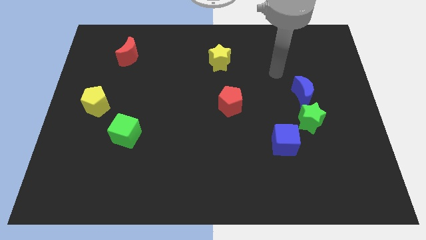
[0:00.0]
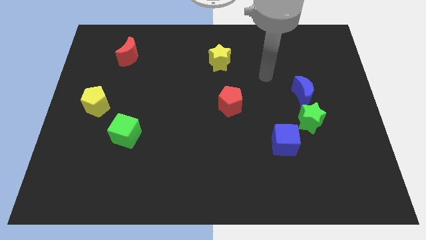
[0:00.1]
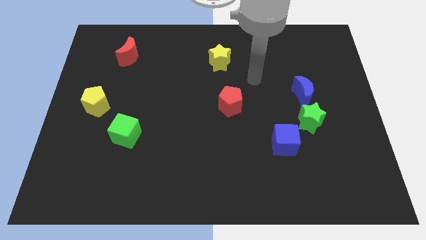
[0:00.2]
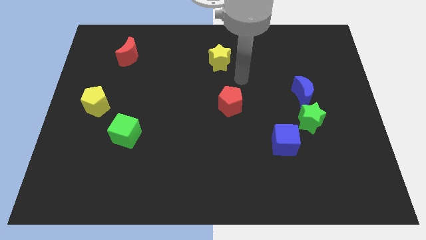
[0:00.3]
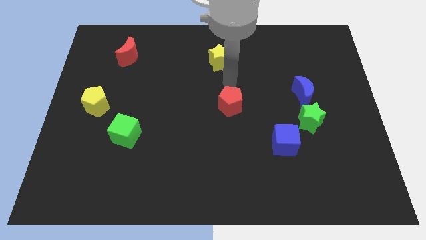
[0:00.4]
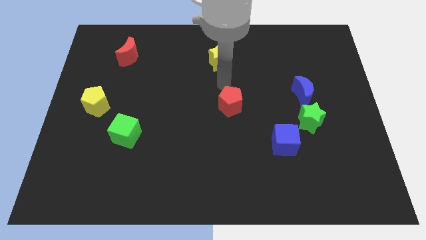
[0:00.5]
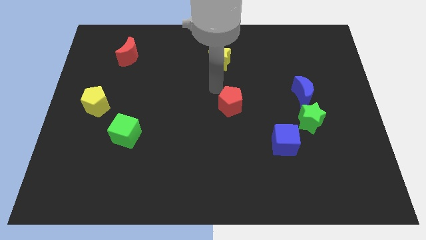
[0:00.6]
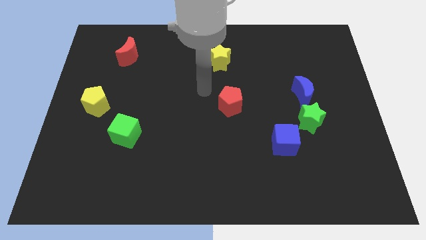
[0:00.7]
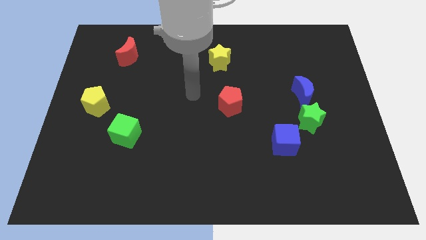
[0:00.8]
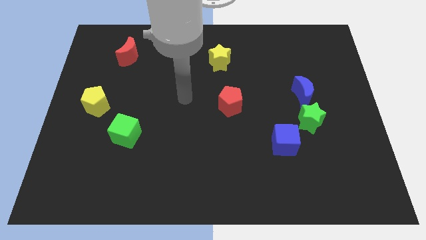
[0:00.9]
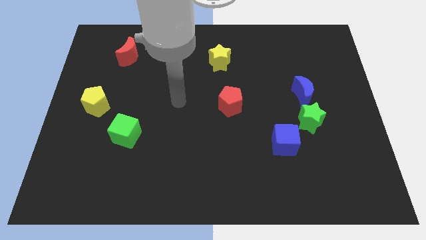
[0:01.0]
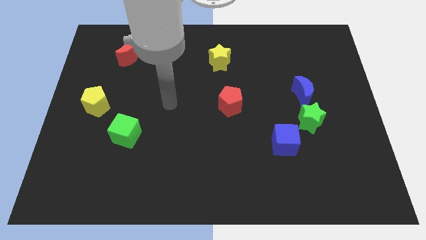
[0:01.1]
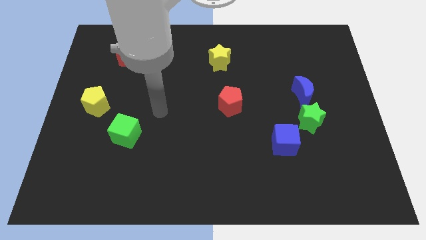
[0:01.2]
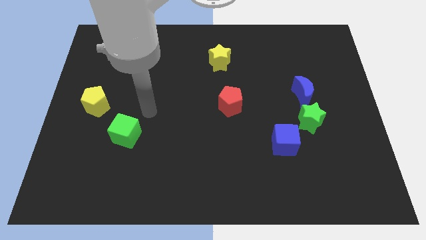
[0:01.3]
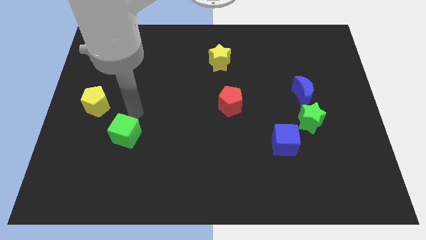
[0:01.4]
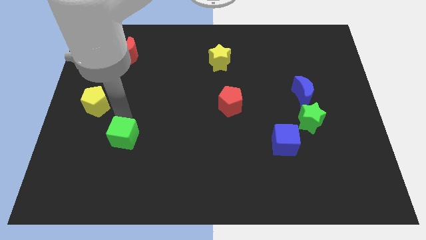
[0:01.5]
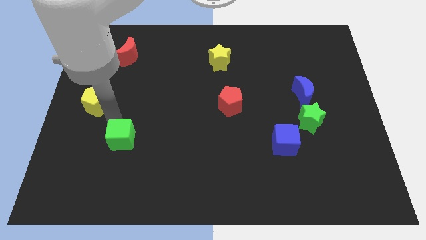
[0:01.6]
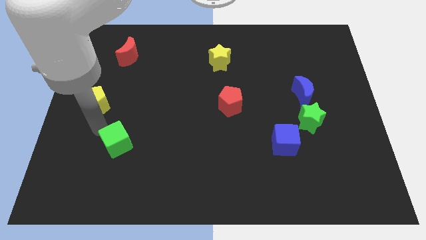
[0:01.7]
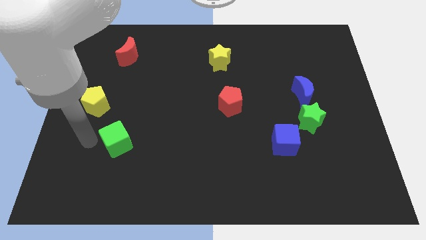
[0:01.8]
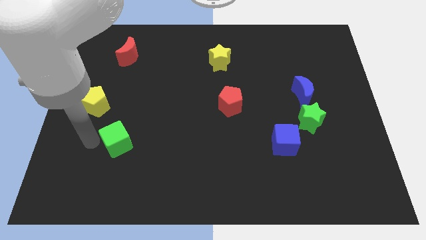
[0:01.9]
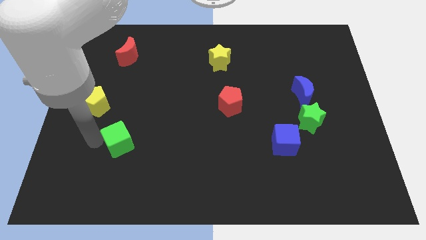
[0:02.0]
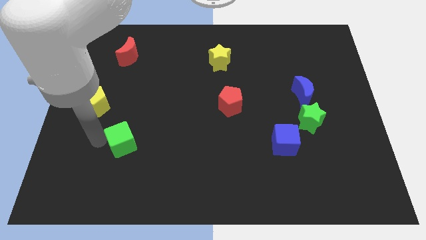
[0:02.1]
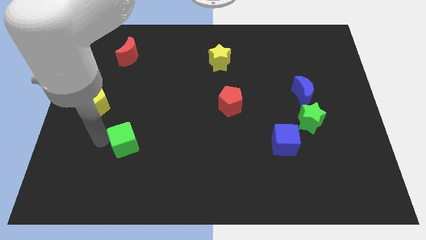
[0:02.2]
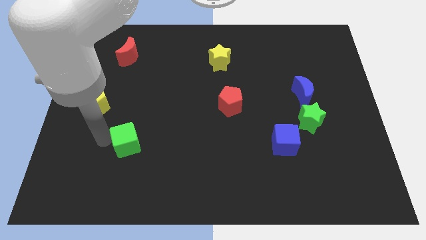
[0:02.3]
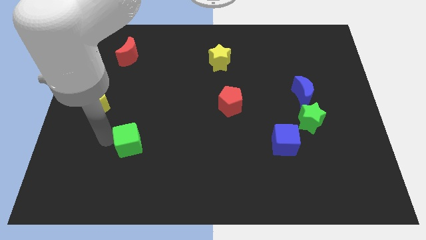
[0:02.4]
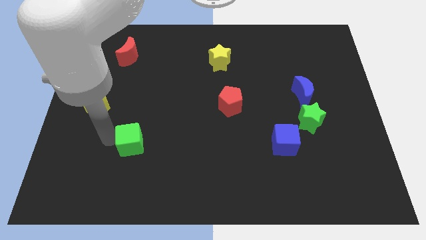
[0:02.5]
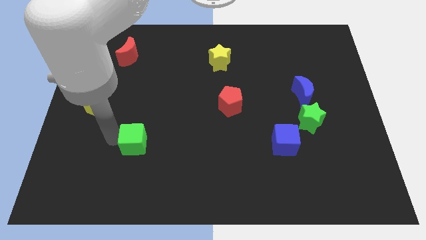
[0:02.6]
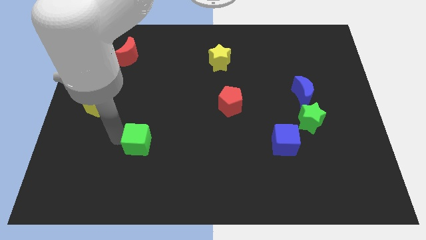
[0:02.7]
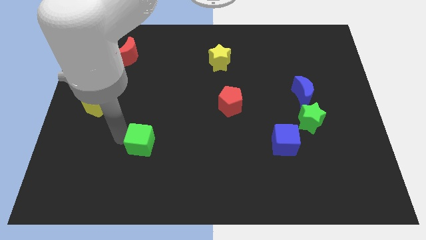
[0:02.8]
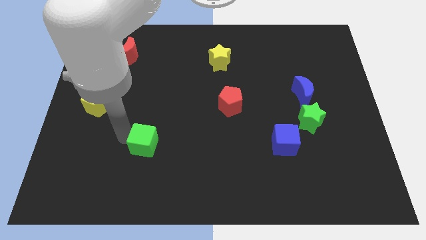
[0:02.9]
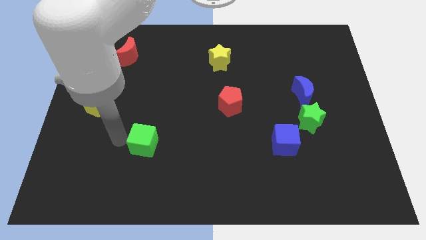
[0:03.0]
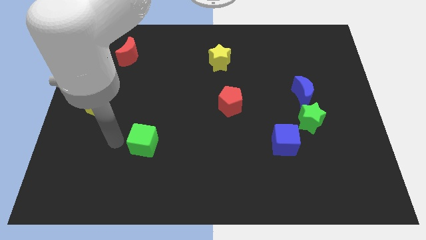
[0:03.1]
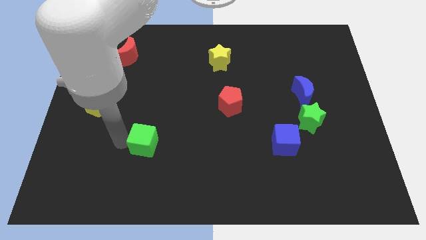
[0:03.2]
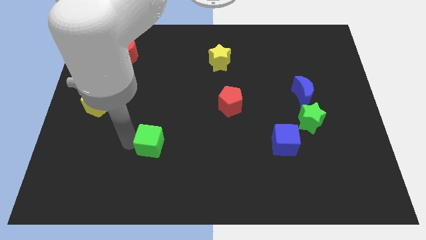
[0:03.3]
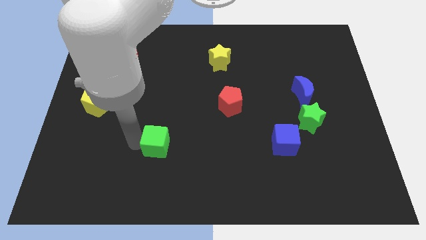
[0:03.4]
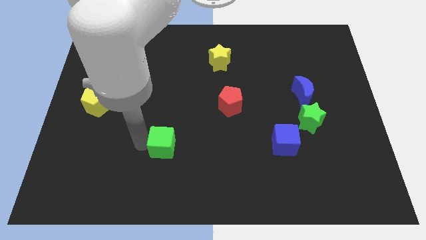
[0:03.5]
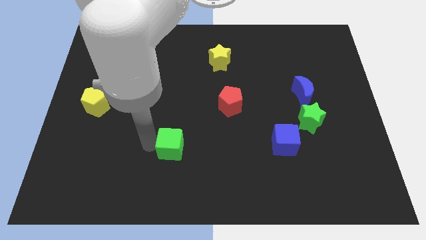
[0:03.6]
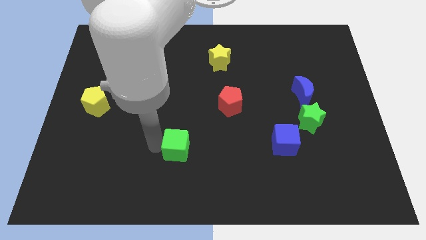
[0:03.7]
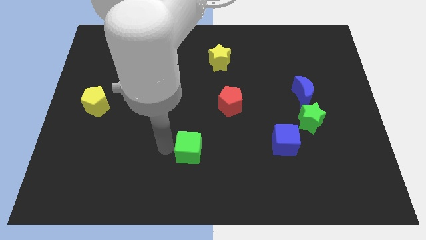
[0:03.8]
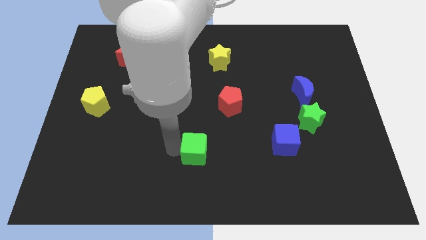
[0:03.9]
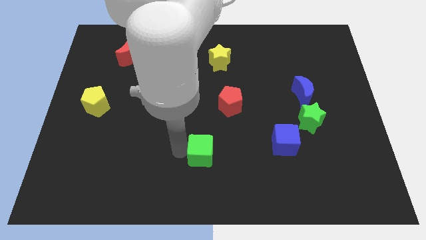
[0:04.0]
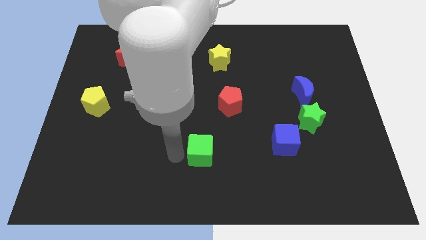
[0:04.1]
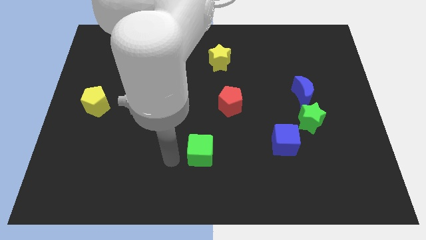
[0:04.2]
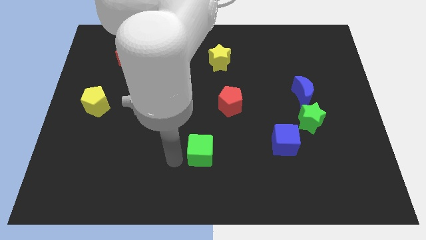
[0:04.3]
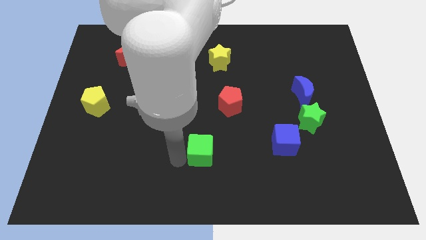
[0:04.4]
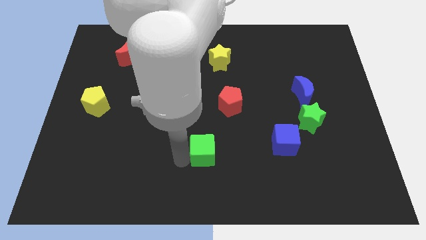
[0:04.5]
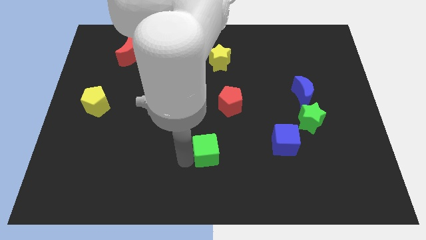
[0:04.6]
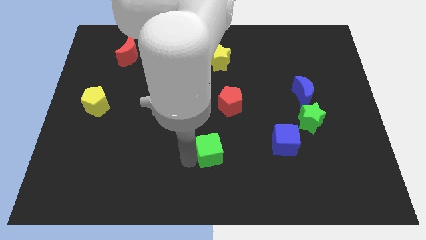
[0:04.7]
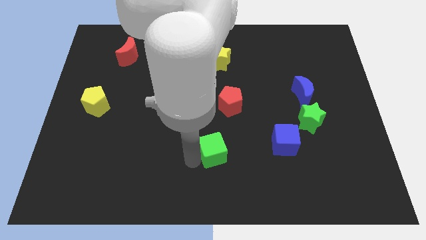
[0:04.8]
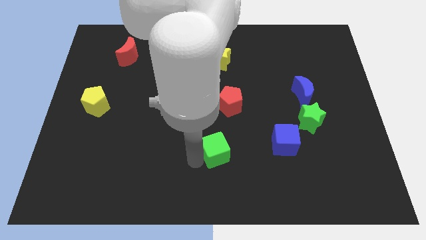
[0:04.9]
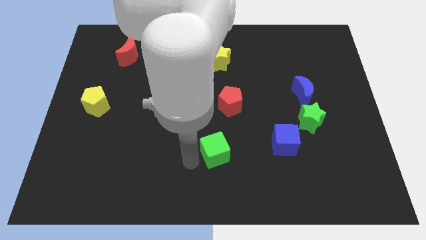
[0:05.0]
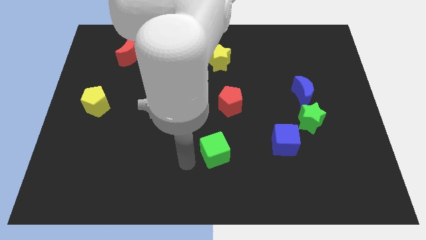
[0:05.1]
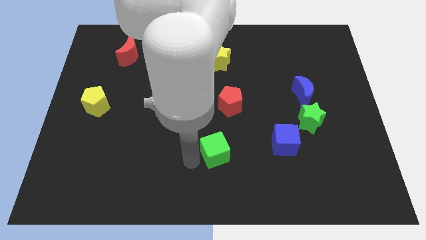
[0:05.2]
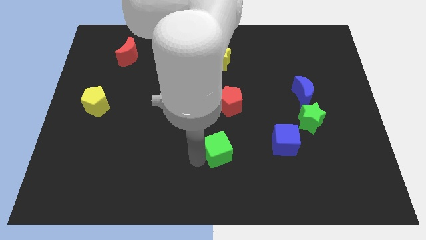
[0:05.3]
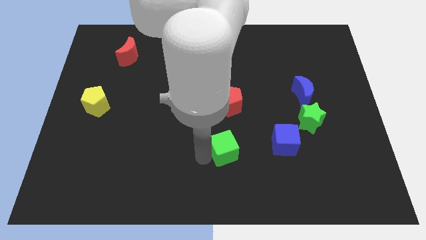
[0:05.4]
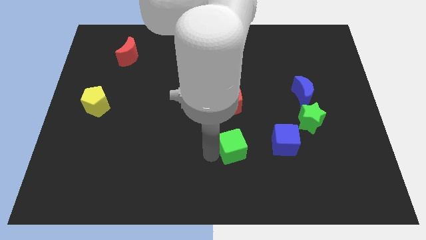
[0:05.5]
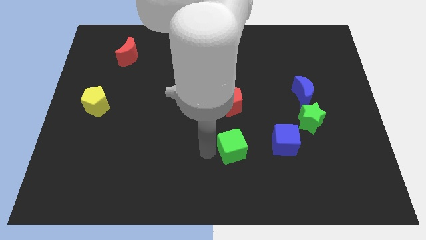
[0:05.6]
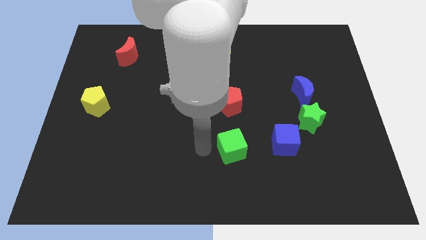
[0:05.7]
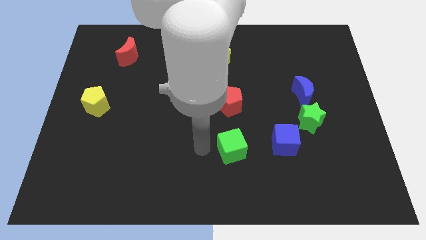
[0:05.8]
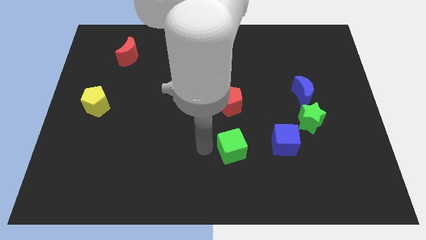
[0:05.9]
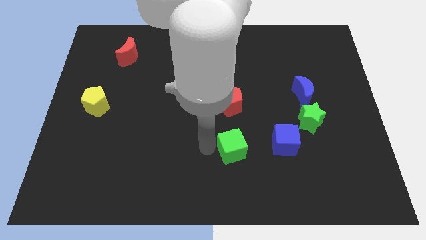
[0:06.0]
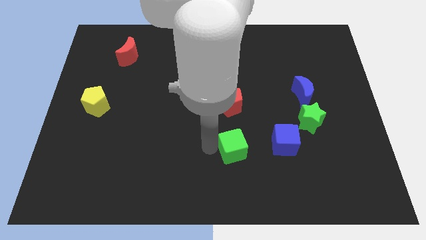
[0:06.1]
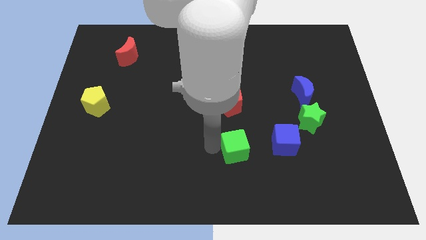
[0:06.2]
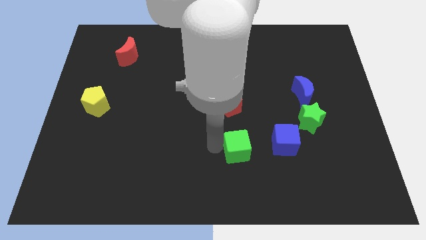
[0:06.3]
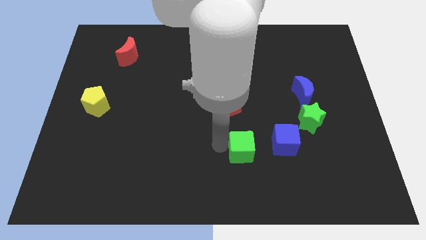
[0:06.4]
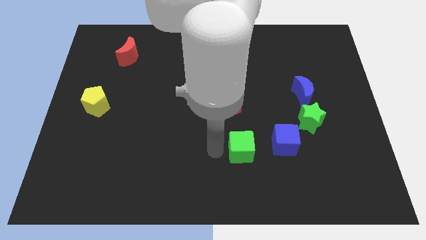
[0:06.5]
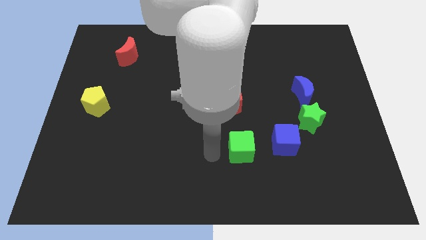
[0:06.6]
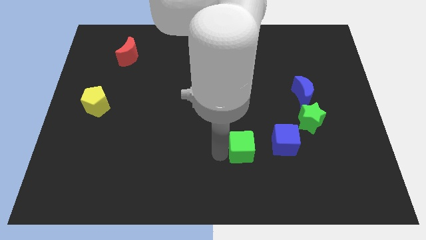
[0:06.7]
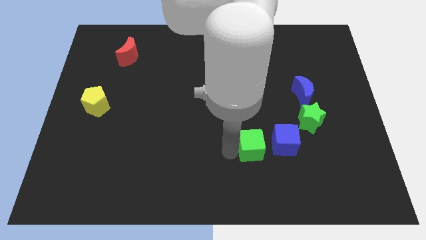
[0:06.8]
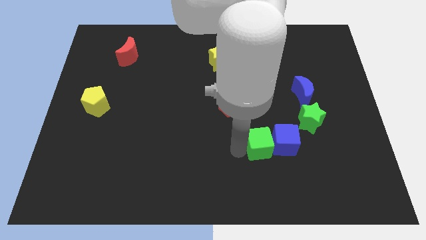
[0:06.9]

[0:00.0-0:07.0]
push the green cube to the blue cube

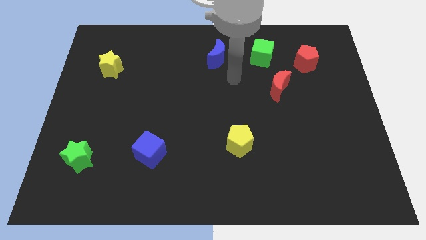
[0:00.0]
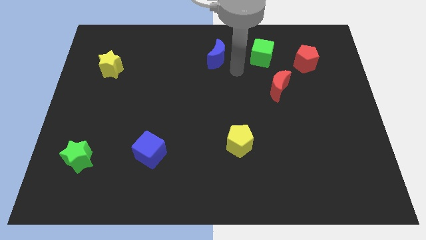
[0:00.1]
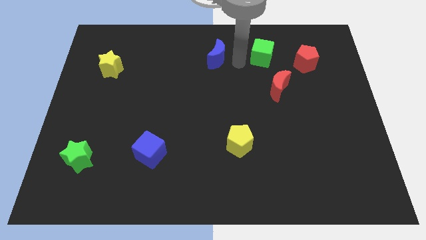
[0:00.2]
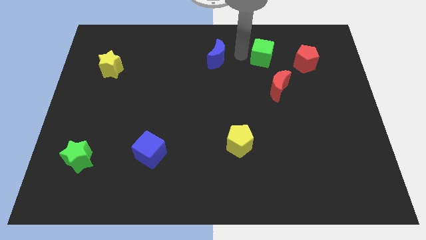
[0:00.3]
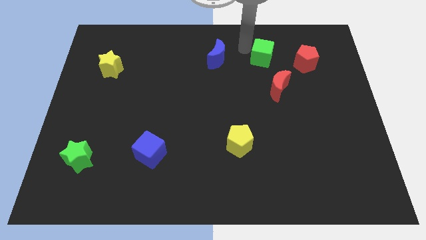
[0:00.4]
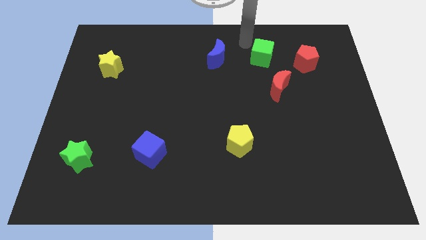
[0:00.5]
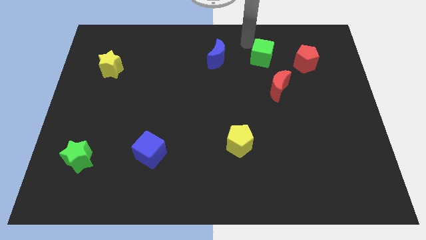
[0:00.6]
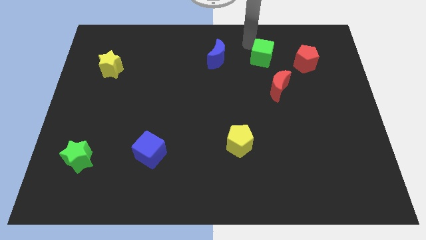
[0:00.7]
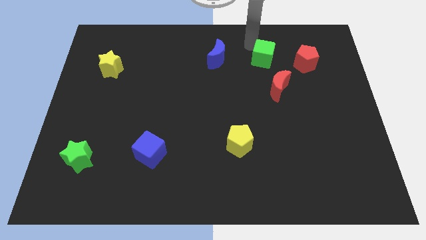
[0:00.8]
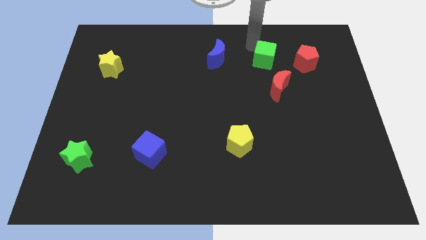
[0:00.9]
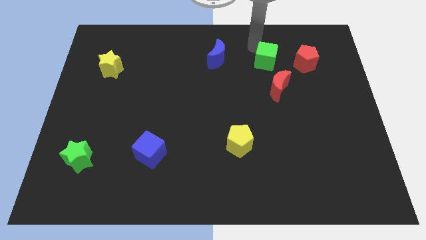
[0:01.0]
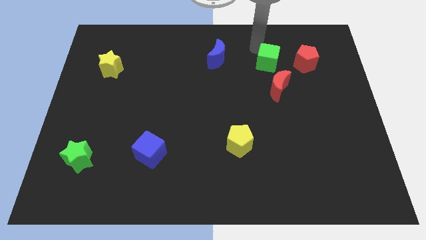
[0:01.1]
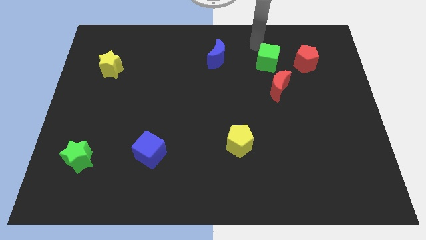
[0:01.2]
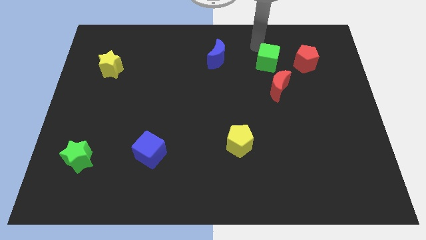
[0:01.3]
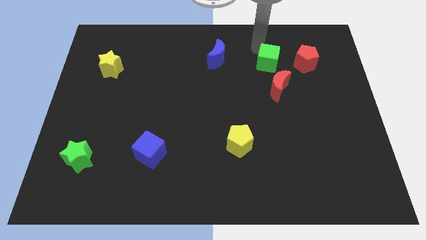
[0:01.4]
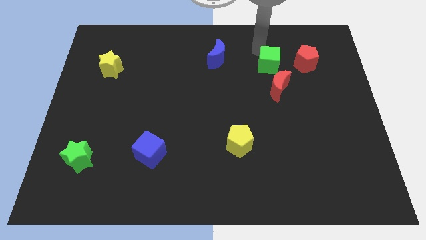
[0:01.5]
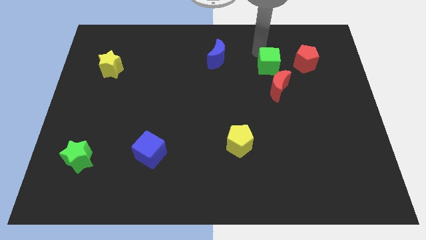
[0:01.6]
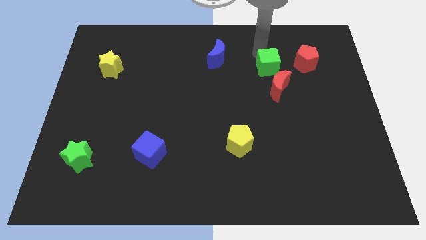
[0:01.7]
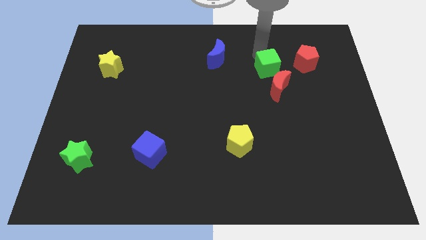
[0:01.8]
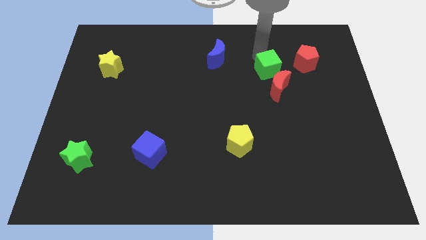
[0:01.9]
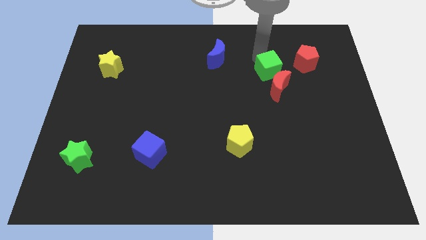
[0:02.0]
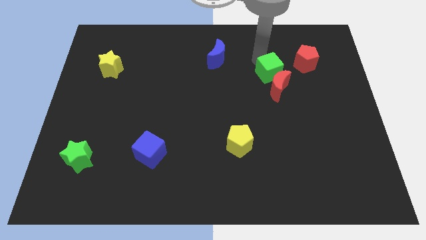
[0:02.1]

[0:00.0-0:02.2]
put the green cube to the red moon
